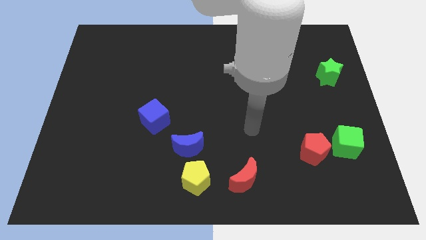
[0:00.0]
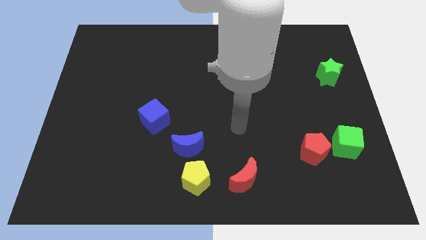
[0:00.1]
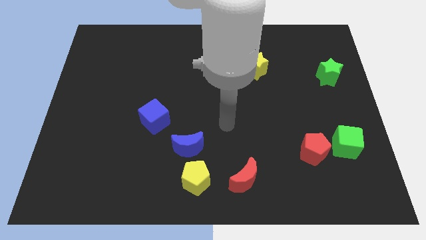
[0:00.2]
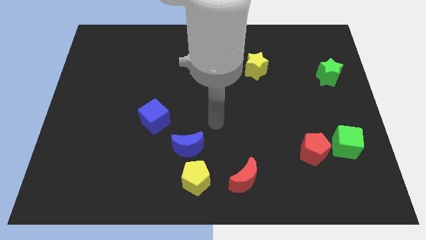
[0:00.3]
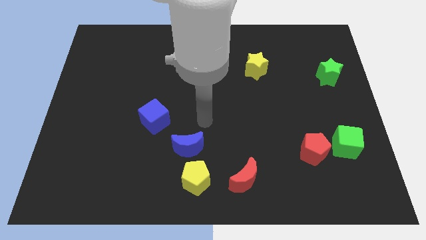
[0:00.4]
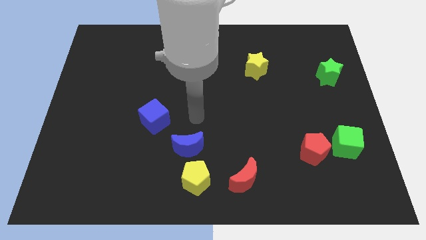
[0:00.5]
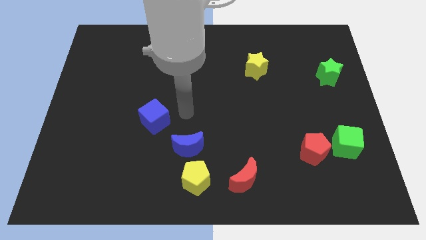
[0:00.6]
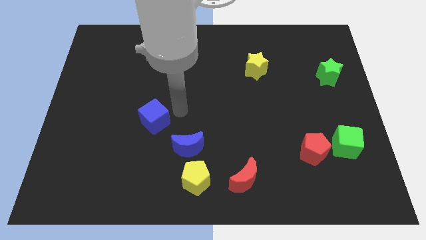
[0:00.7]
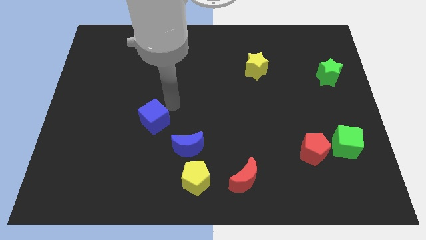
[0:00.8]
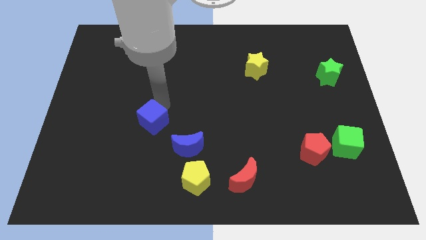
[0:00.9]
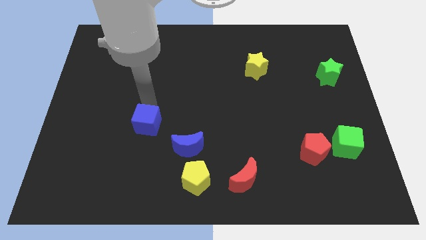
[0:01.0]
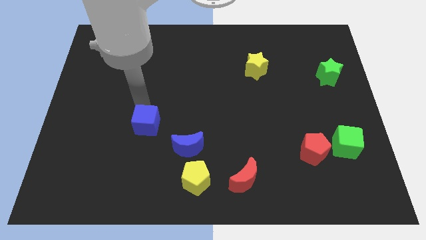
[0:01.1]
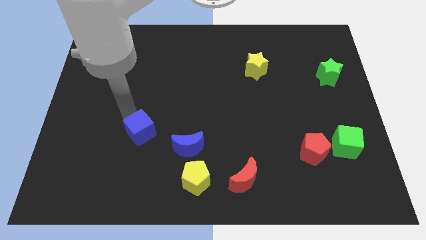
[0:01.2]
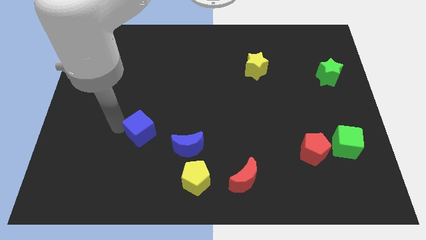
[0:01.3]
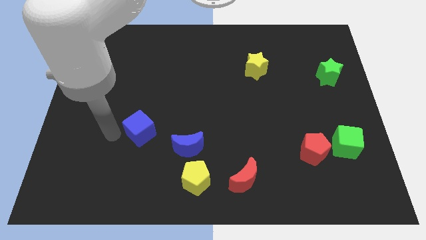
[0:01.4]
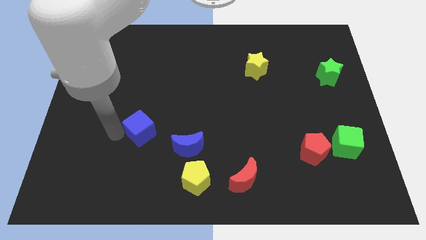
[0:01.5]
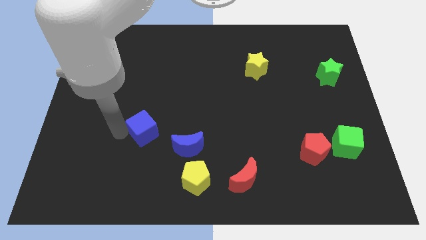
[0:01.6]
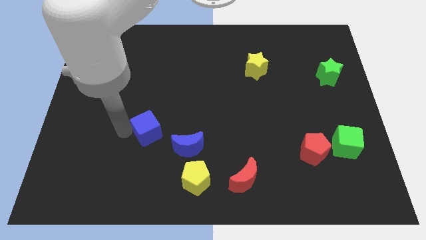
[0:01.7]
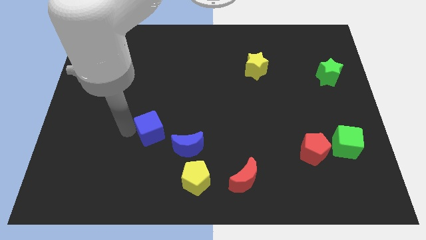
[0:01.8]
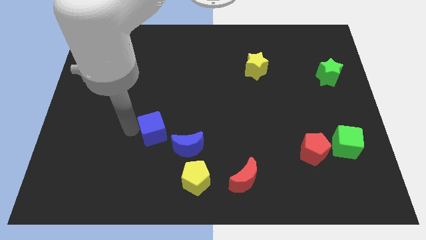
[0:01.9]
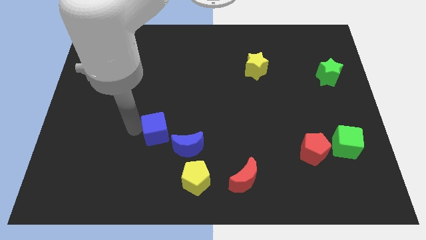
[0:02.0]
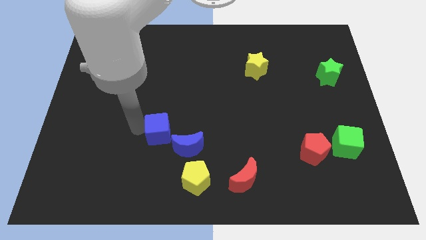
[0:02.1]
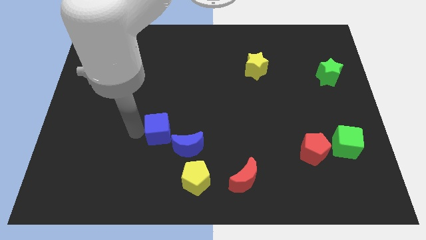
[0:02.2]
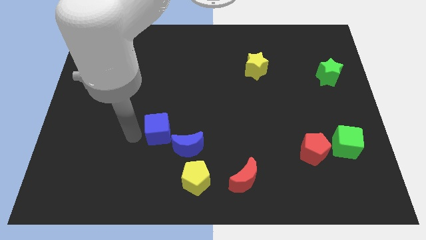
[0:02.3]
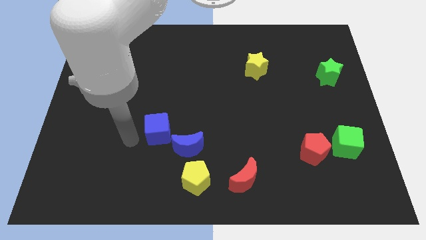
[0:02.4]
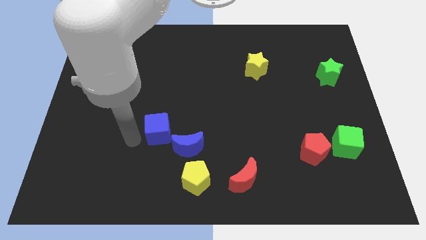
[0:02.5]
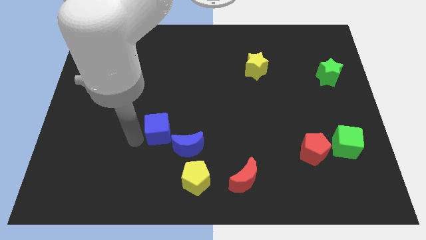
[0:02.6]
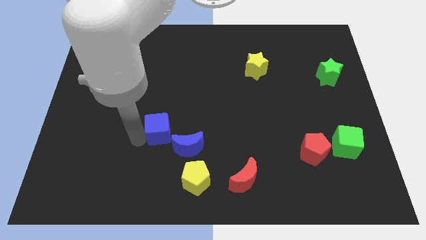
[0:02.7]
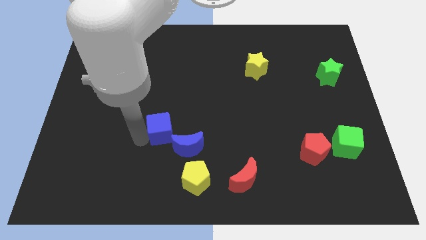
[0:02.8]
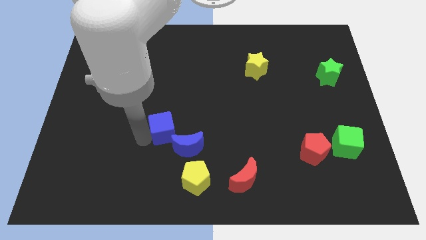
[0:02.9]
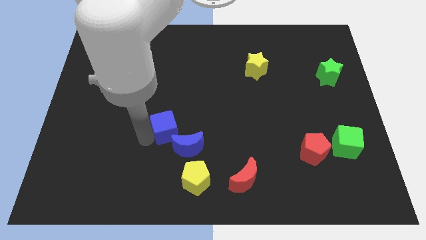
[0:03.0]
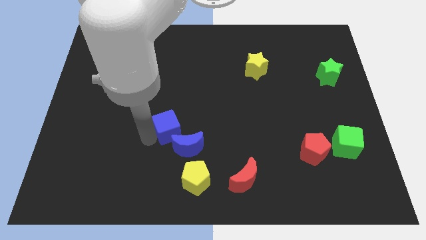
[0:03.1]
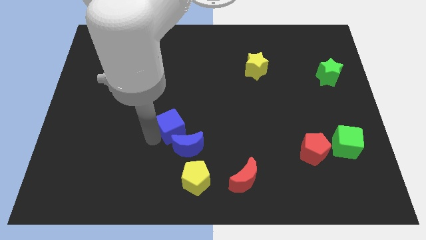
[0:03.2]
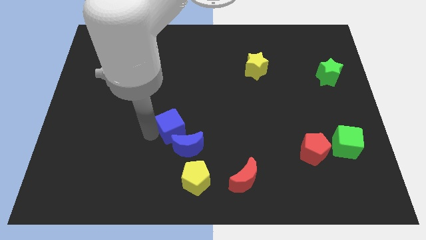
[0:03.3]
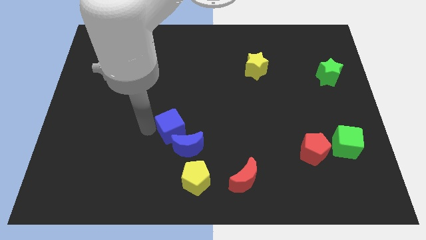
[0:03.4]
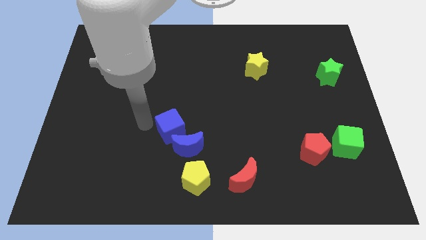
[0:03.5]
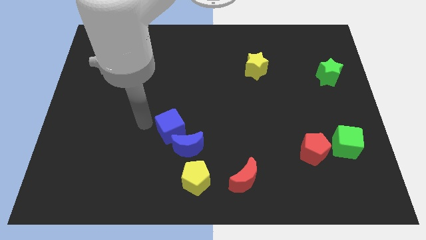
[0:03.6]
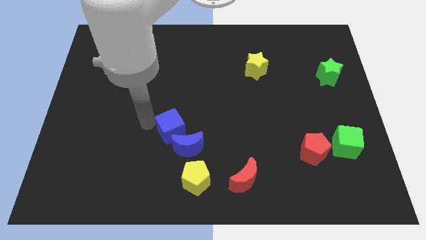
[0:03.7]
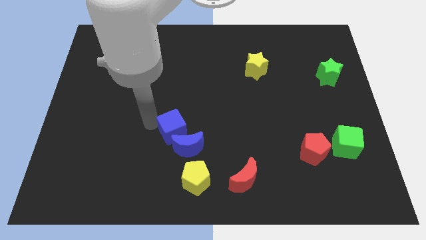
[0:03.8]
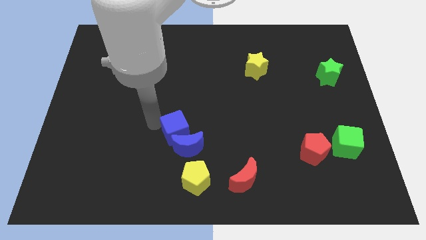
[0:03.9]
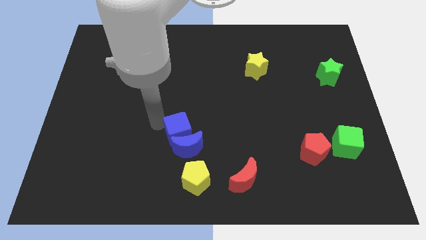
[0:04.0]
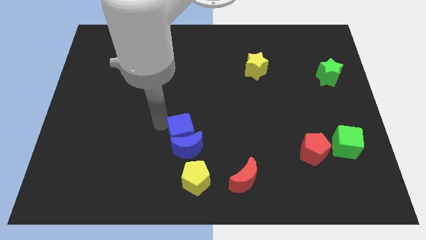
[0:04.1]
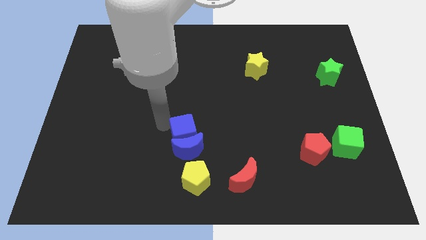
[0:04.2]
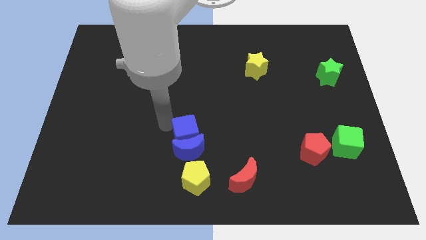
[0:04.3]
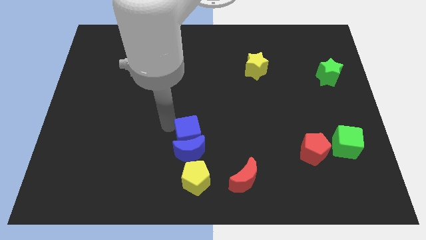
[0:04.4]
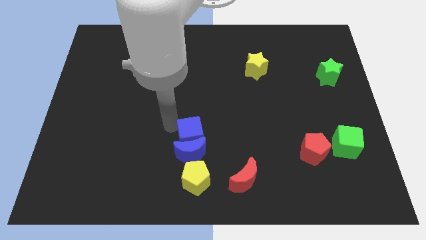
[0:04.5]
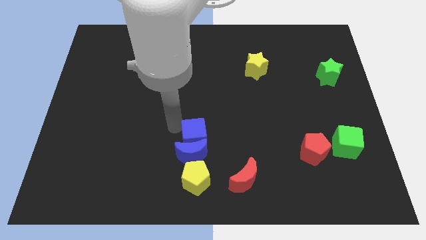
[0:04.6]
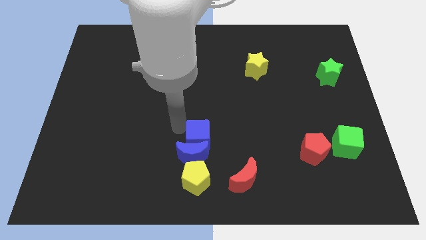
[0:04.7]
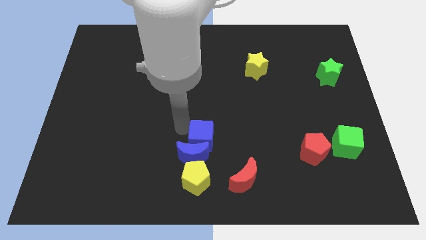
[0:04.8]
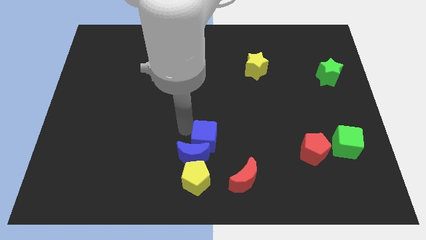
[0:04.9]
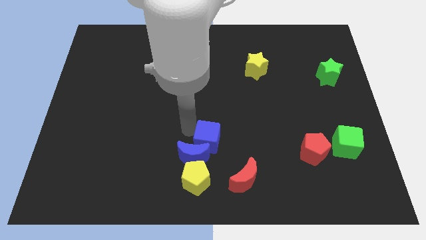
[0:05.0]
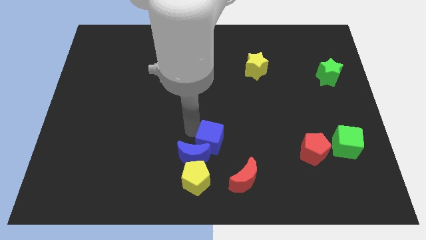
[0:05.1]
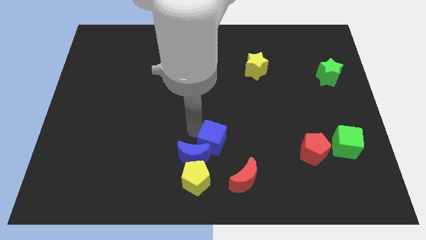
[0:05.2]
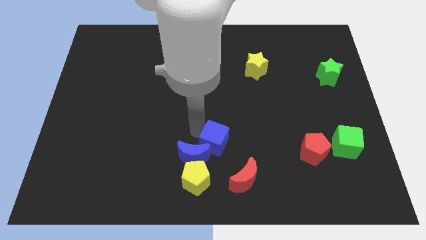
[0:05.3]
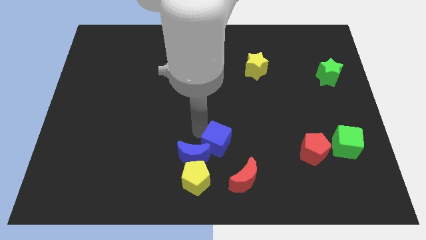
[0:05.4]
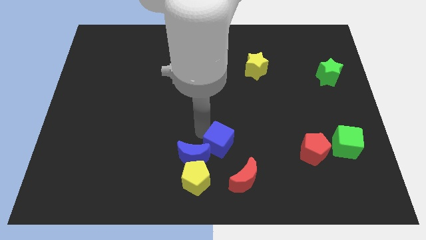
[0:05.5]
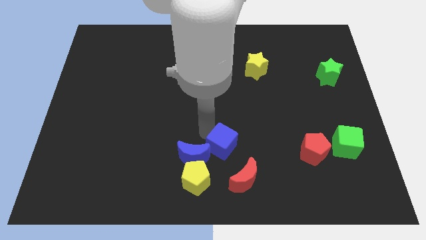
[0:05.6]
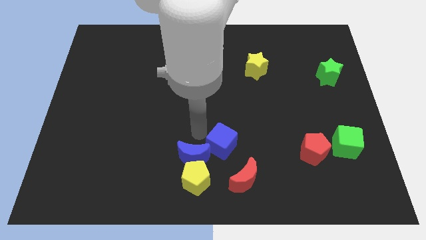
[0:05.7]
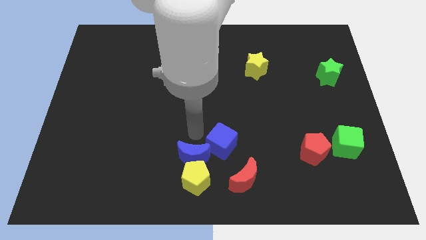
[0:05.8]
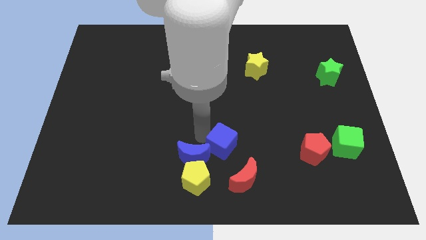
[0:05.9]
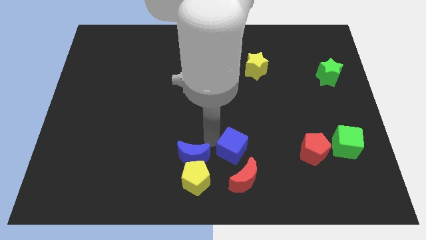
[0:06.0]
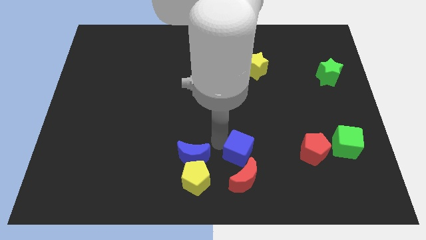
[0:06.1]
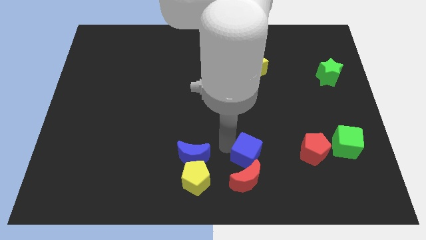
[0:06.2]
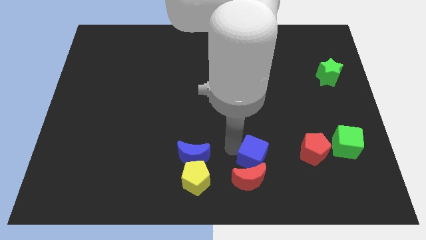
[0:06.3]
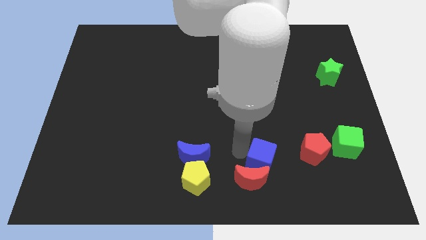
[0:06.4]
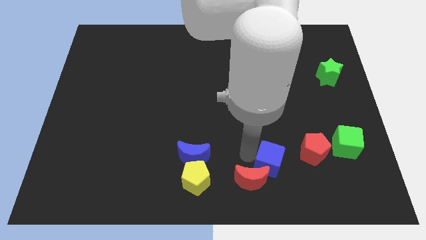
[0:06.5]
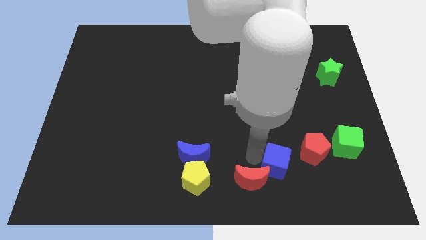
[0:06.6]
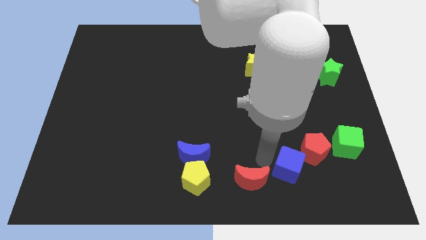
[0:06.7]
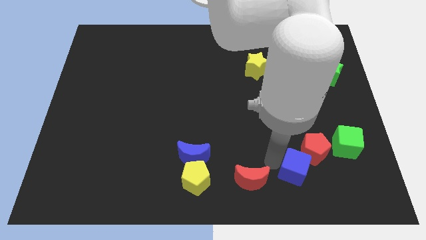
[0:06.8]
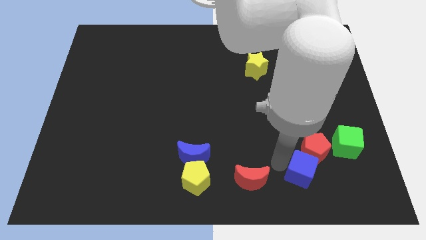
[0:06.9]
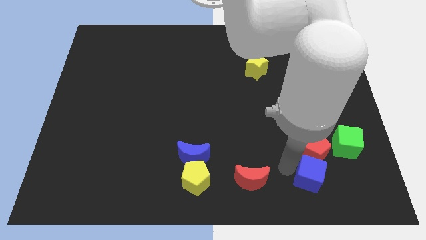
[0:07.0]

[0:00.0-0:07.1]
put the blue cube diagonally down and to the left of the green cube

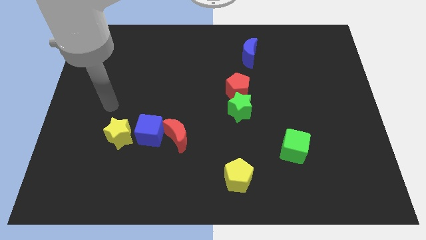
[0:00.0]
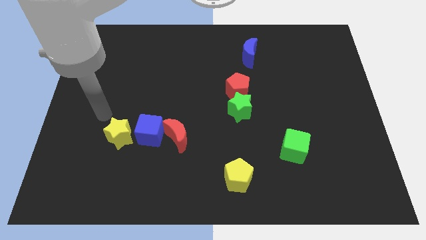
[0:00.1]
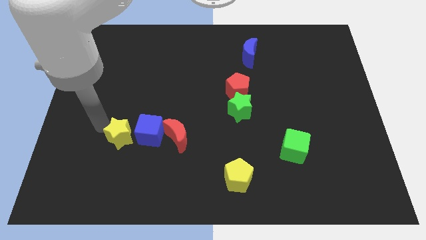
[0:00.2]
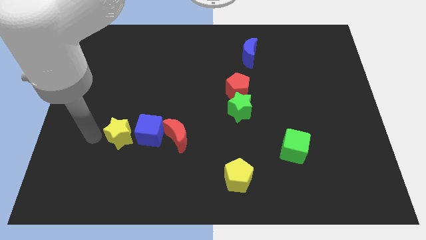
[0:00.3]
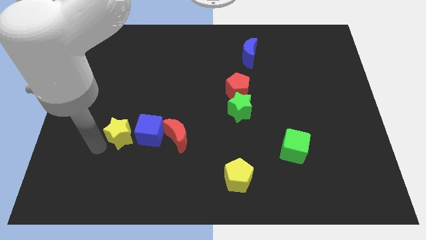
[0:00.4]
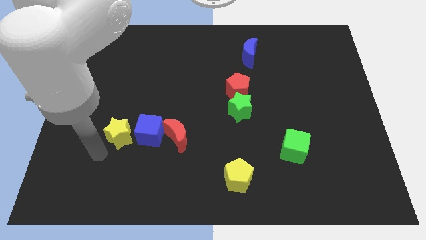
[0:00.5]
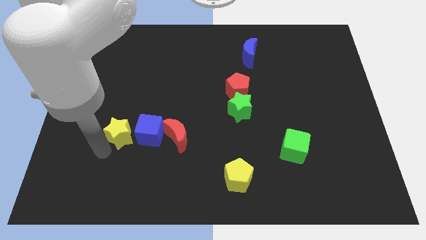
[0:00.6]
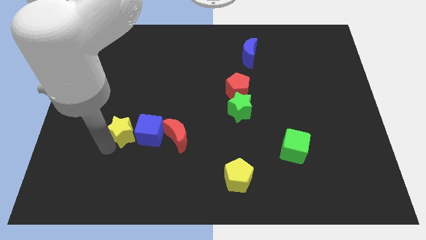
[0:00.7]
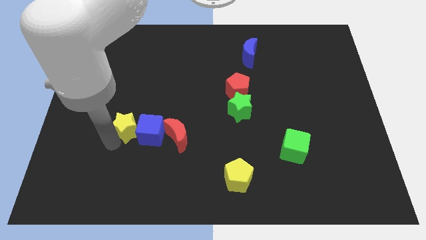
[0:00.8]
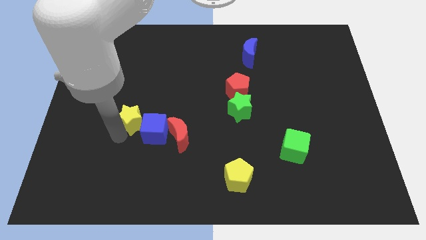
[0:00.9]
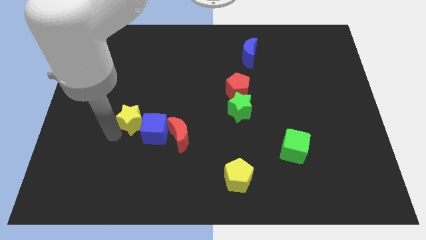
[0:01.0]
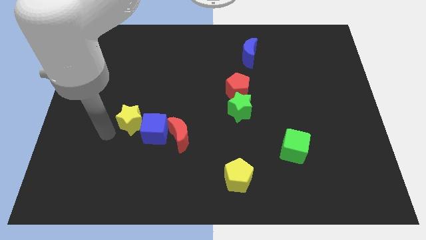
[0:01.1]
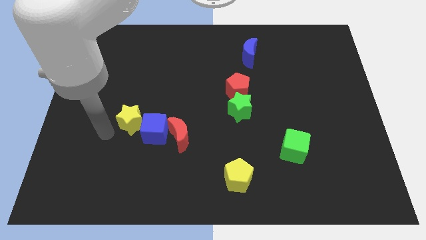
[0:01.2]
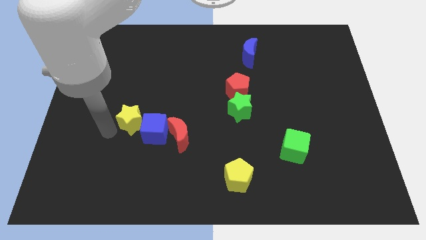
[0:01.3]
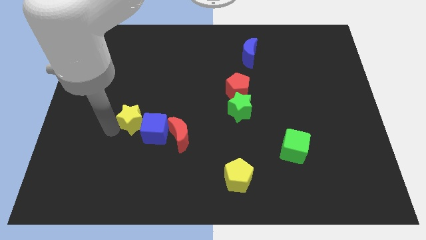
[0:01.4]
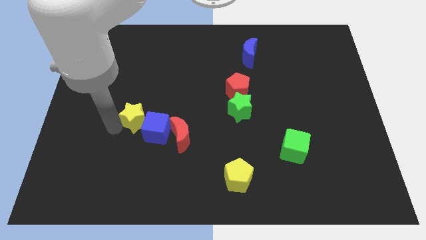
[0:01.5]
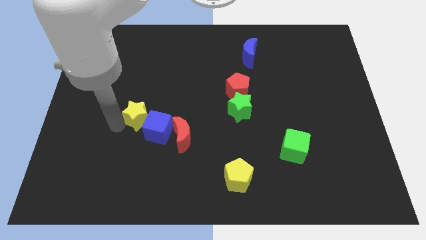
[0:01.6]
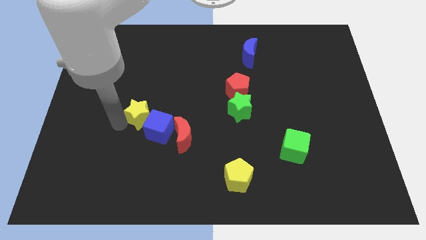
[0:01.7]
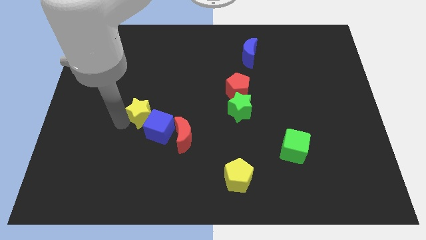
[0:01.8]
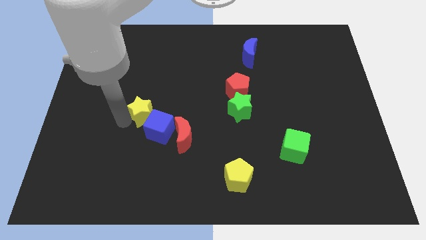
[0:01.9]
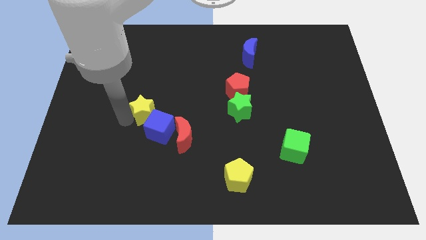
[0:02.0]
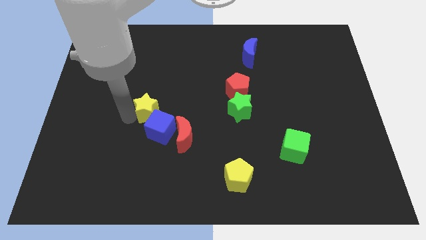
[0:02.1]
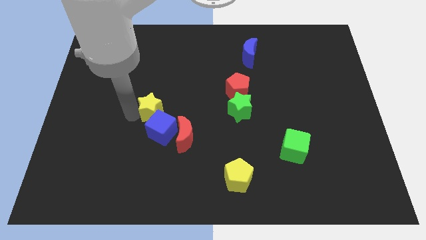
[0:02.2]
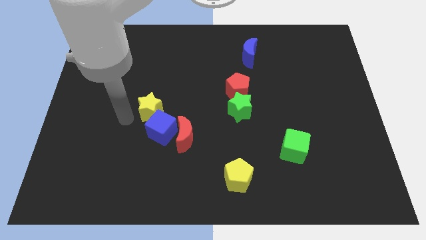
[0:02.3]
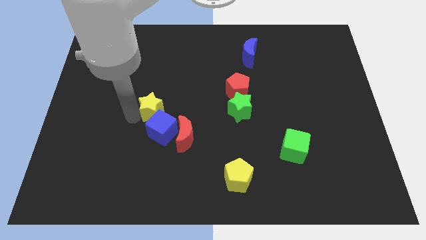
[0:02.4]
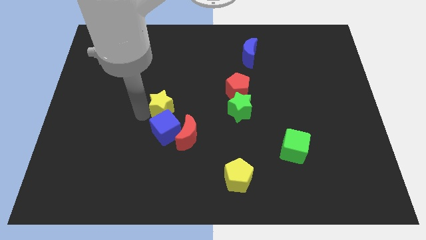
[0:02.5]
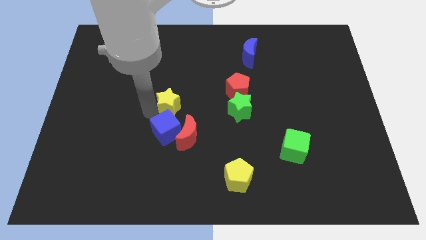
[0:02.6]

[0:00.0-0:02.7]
move the yellow star above the red moon
